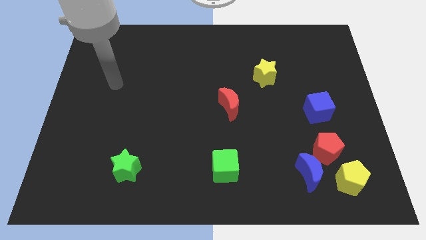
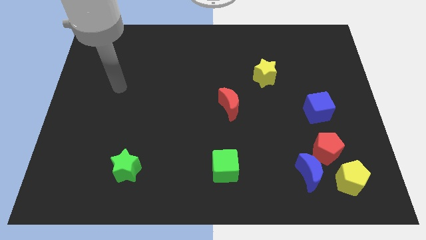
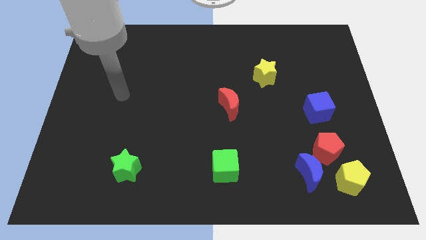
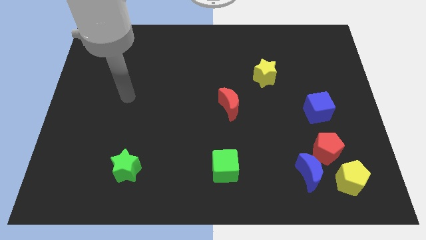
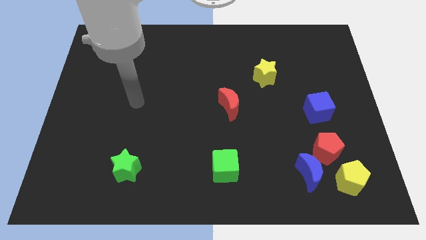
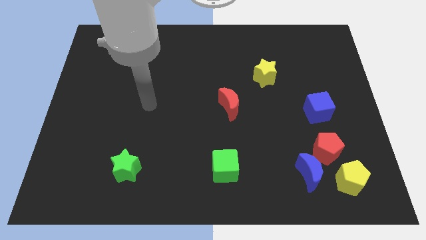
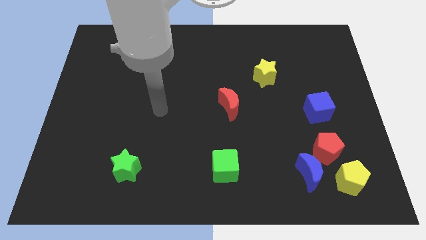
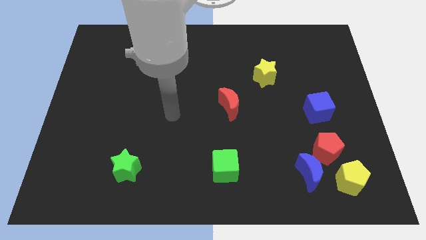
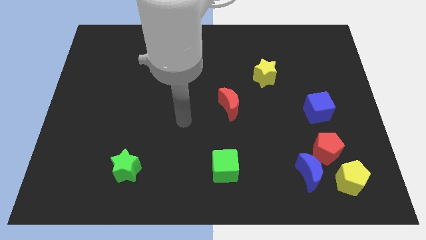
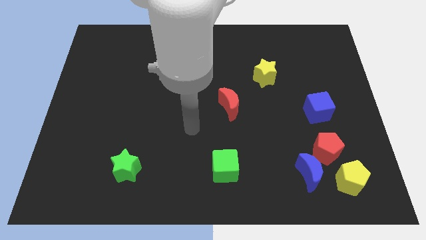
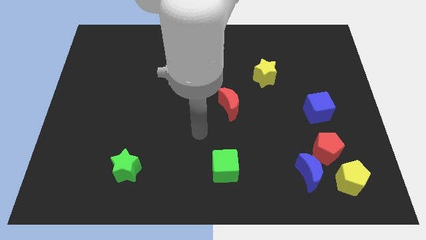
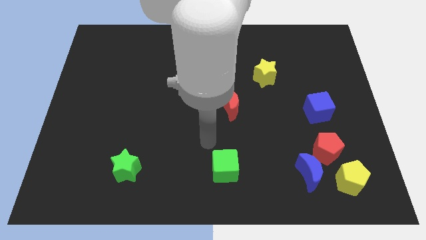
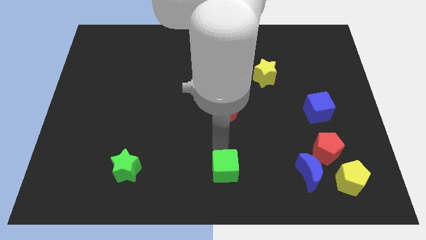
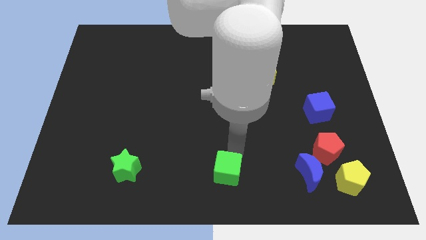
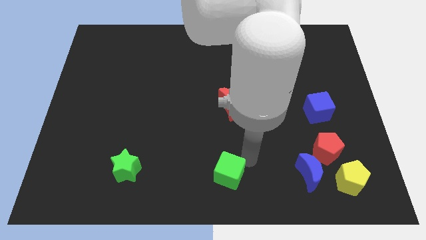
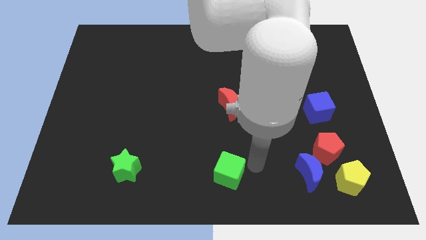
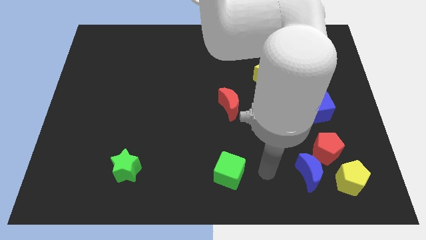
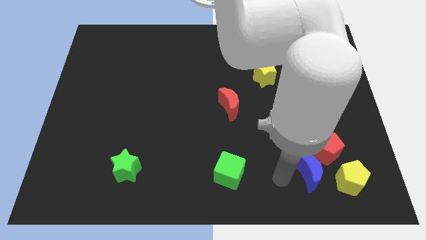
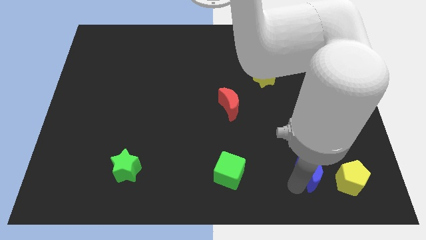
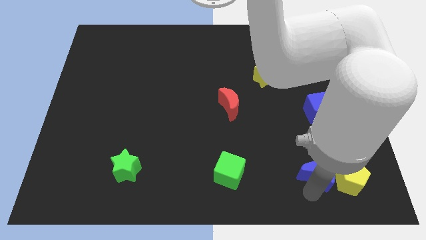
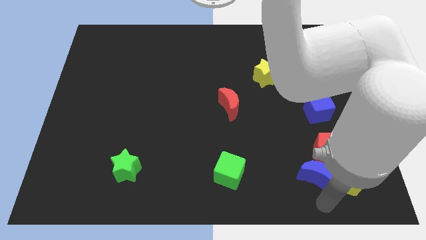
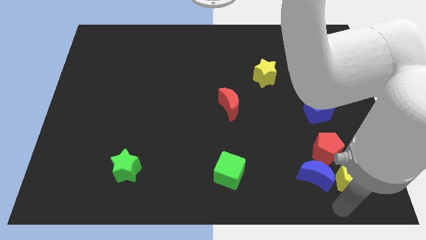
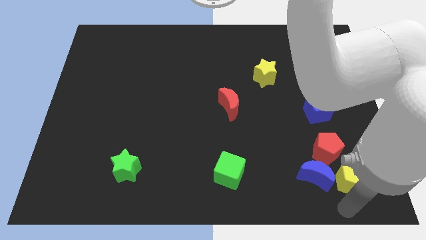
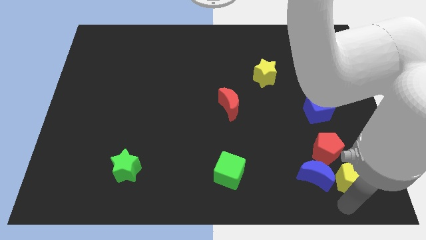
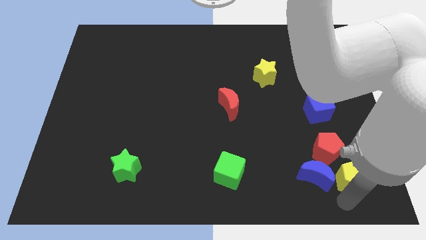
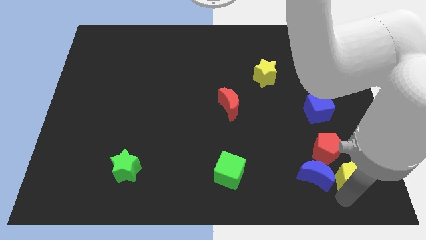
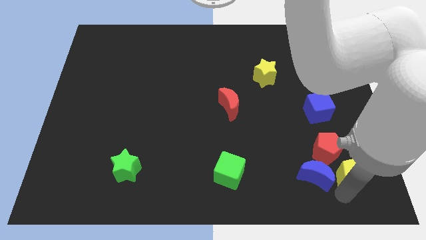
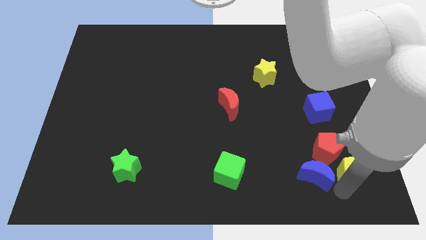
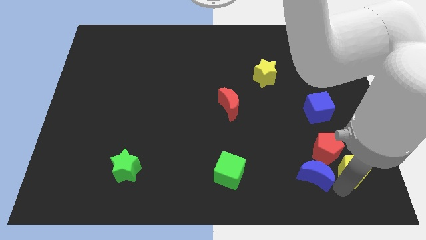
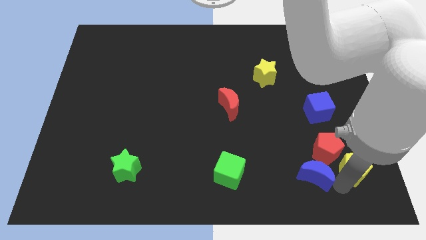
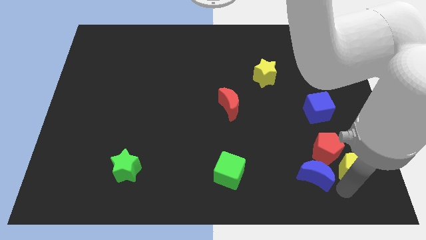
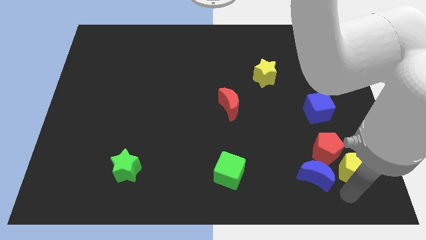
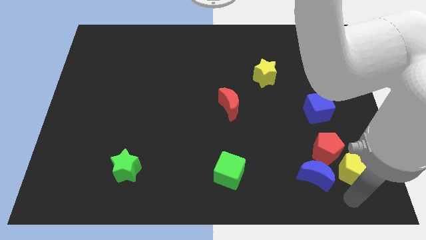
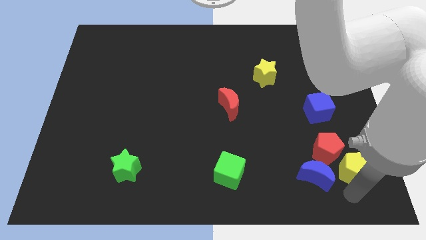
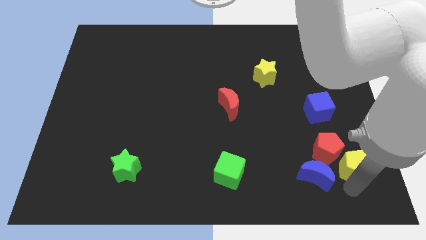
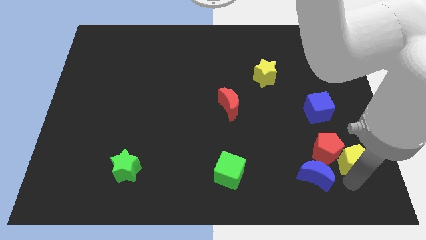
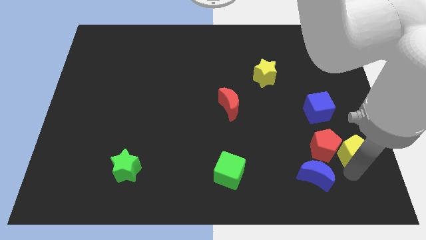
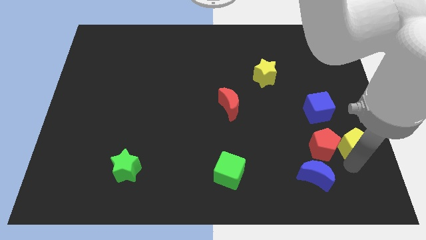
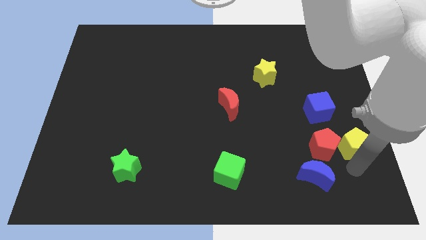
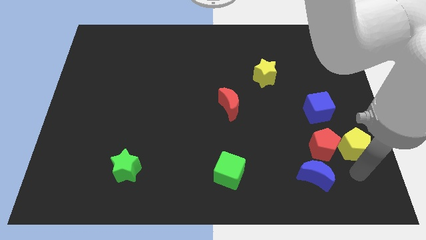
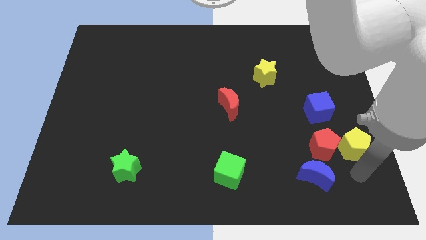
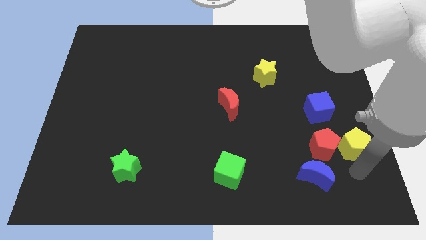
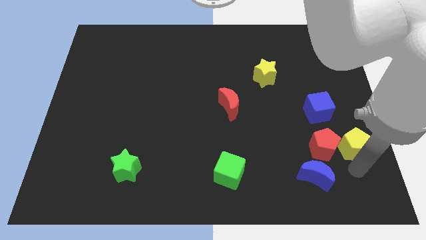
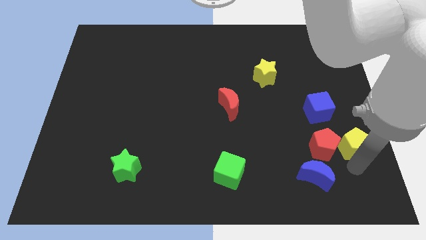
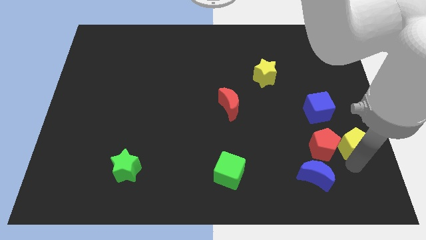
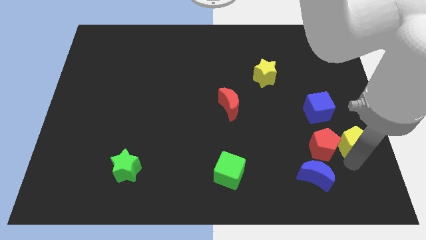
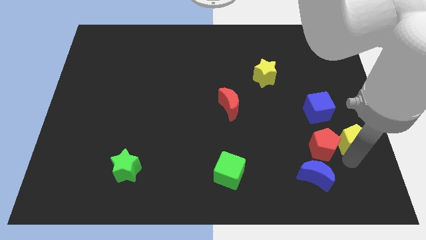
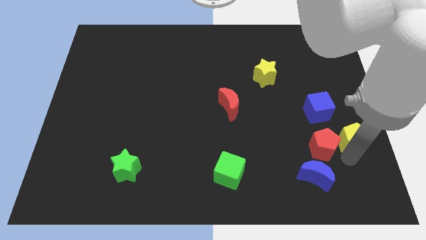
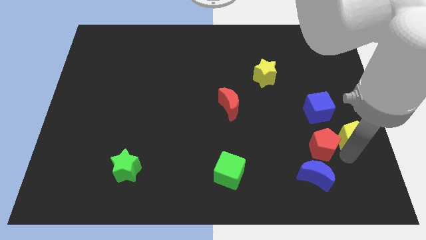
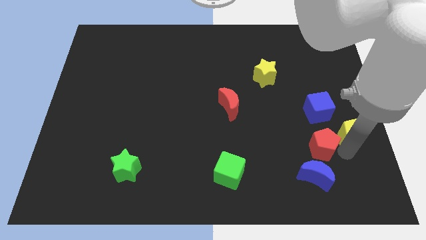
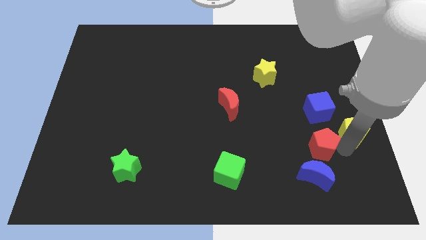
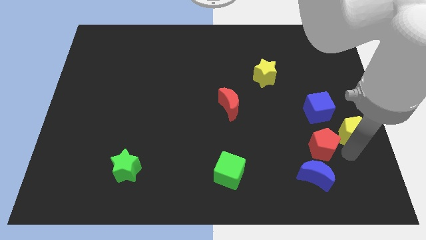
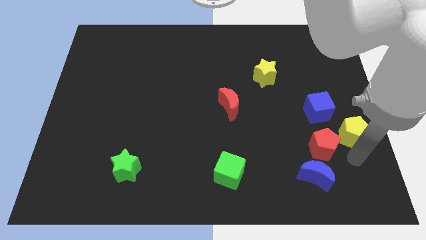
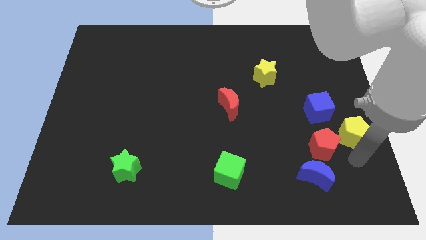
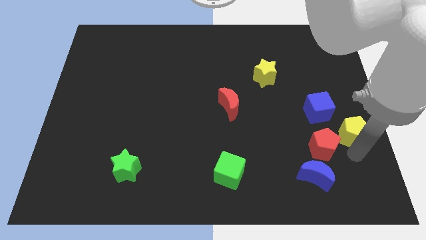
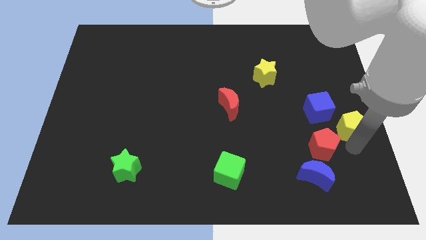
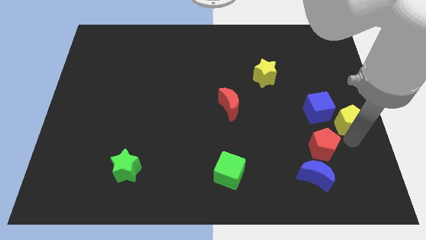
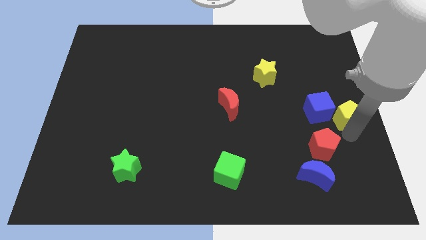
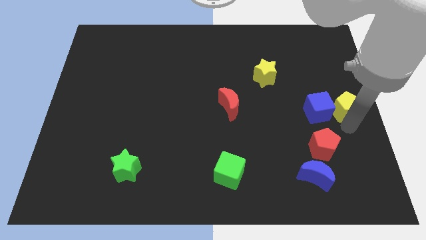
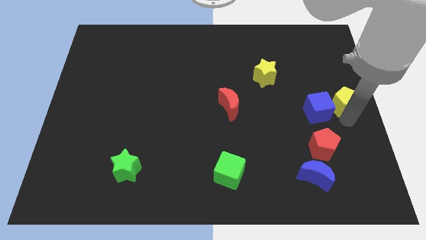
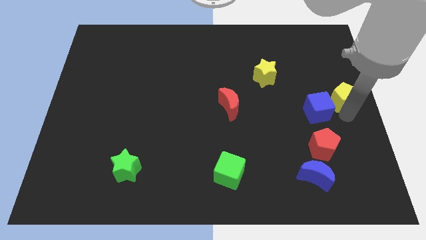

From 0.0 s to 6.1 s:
push the yellow pentagon upwards

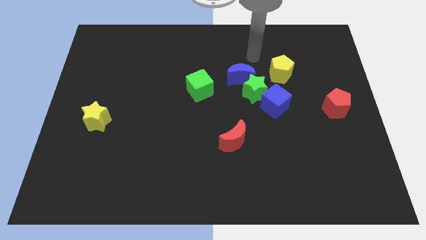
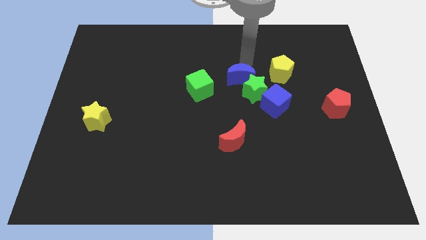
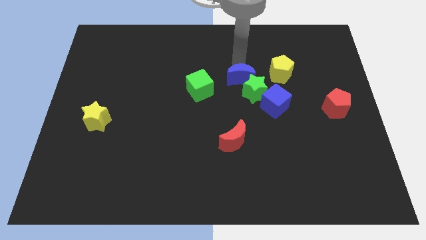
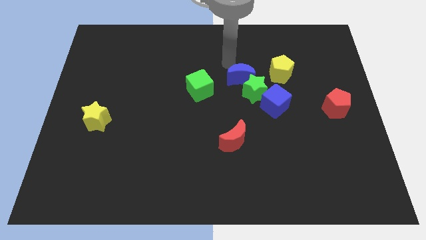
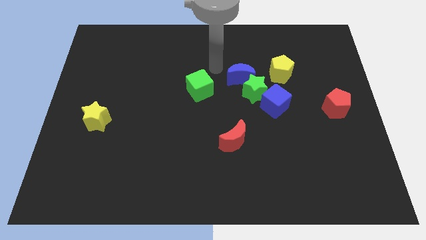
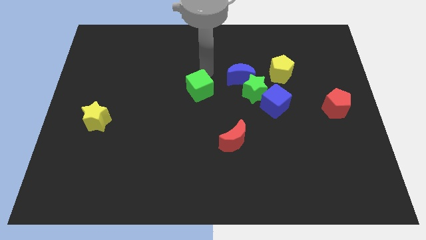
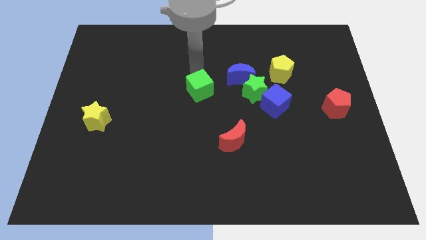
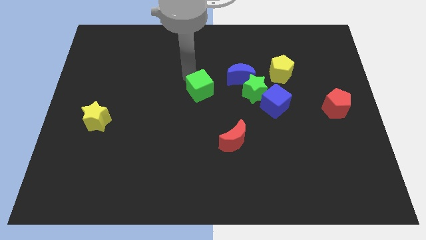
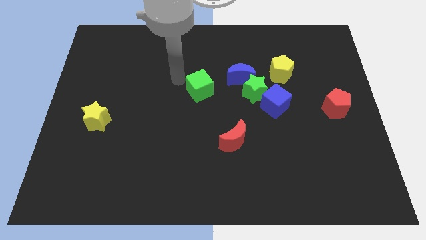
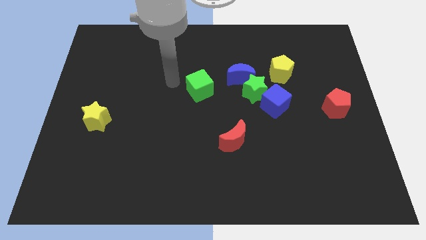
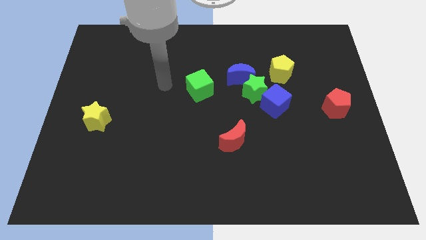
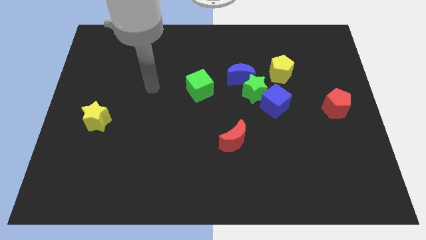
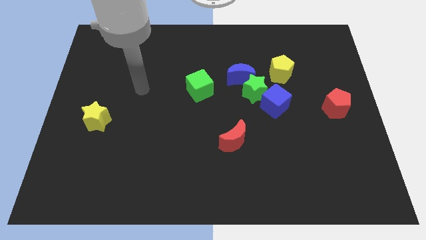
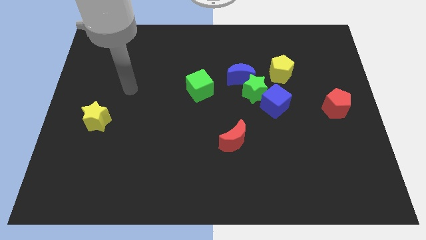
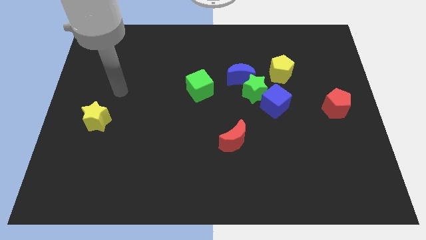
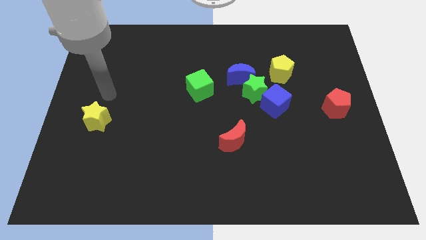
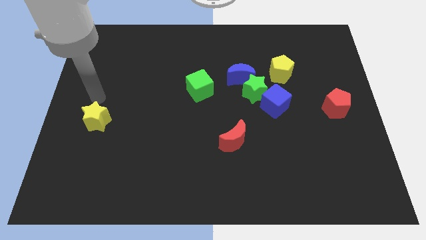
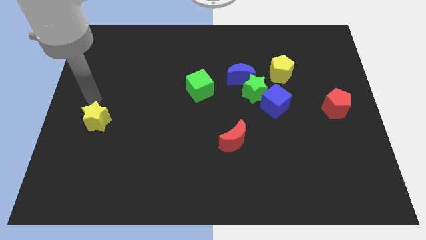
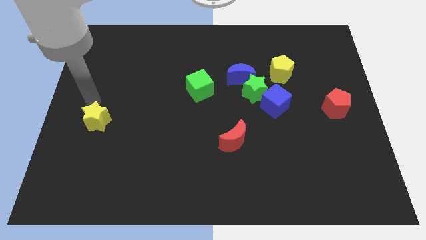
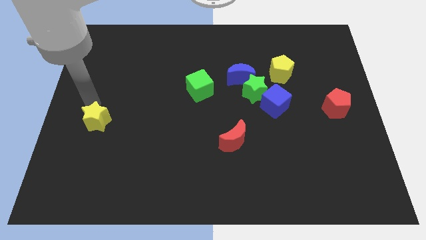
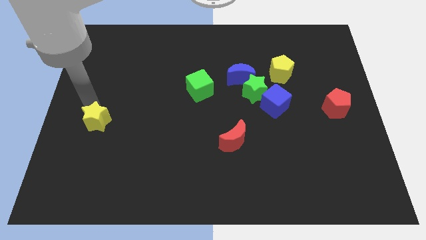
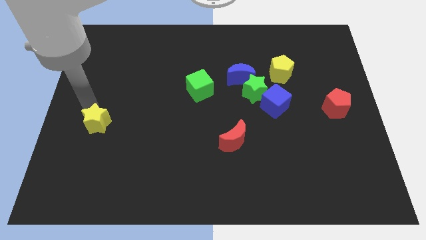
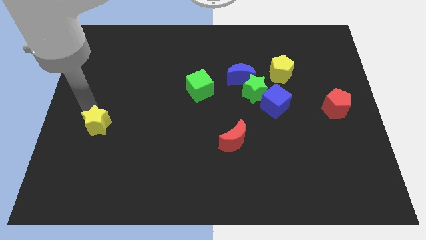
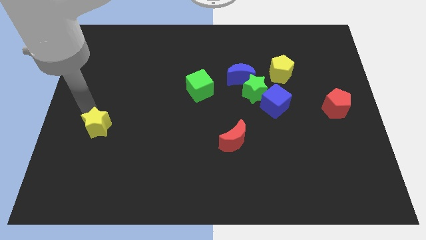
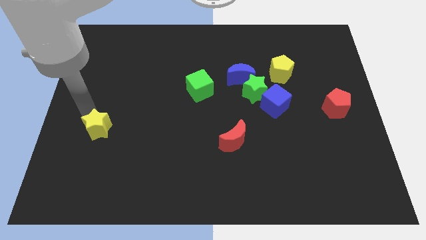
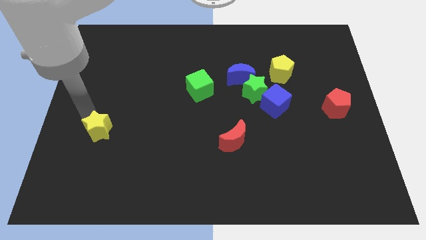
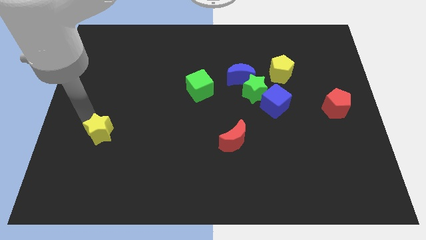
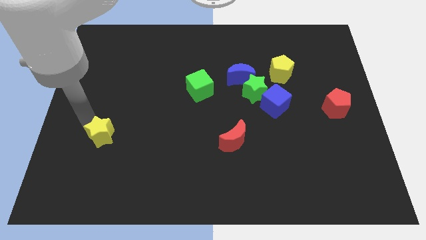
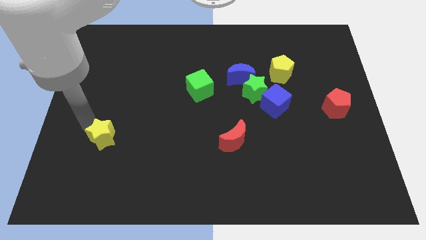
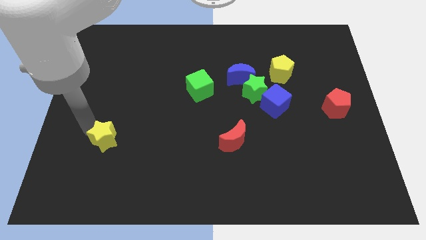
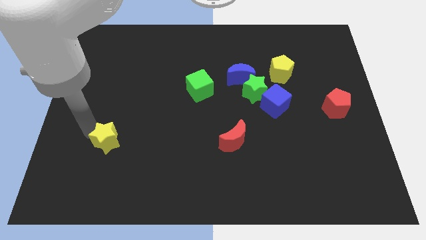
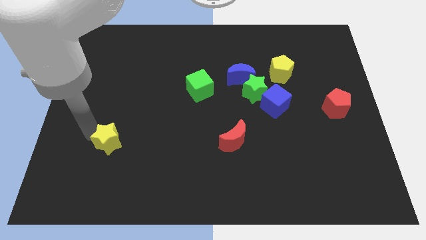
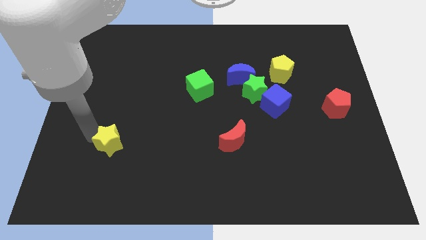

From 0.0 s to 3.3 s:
push the yellow star down and then right somewhat
